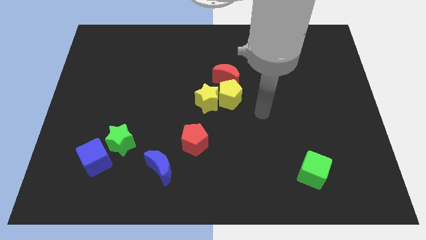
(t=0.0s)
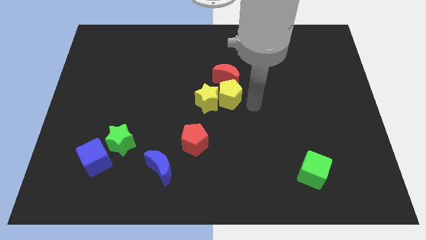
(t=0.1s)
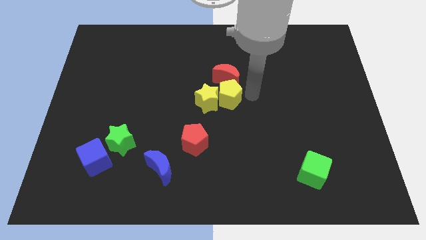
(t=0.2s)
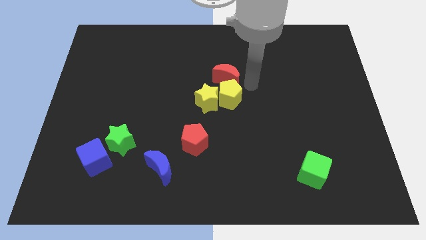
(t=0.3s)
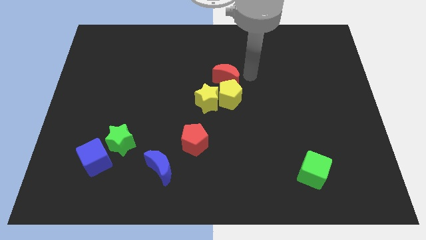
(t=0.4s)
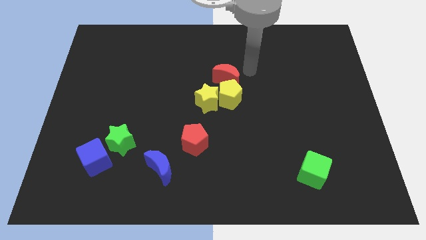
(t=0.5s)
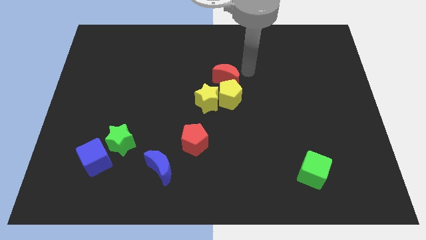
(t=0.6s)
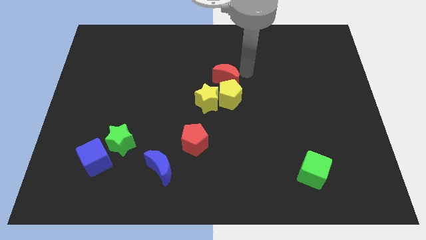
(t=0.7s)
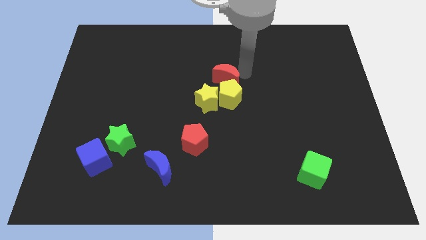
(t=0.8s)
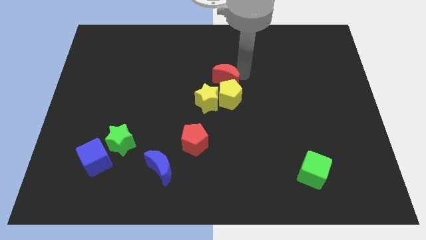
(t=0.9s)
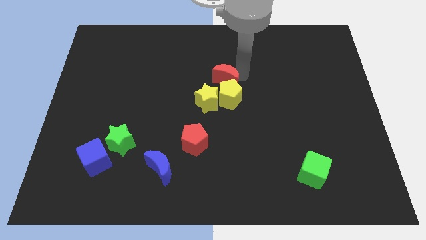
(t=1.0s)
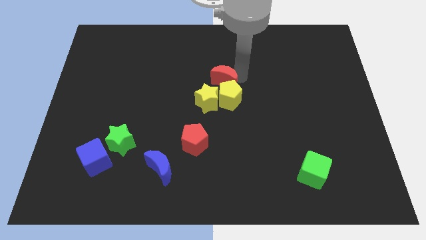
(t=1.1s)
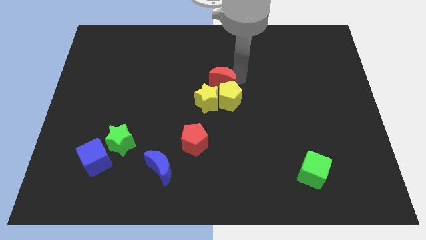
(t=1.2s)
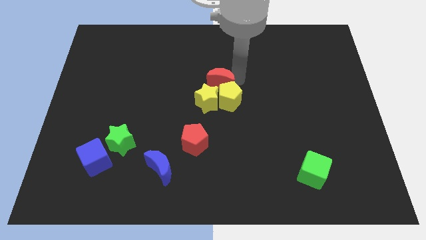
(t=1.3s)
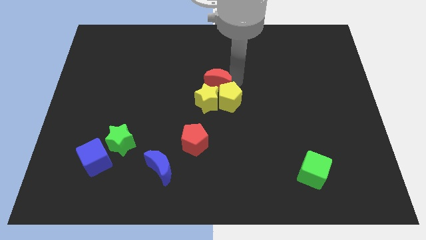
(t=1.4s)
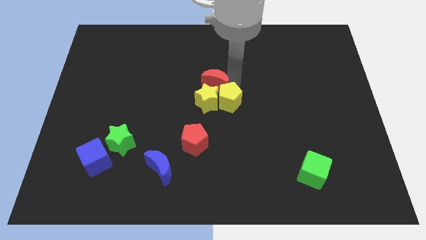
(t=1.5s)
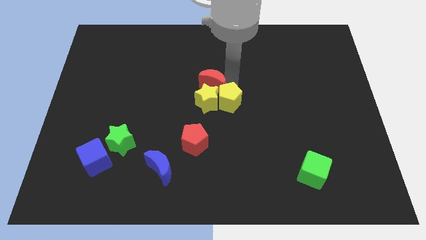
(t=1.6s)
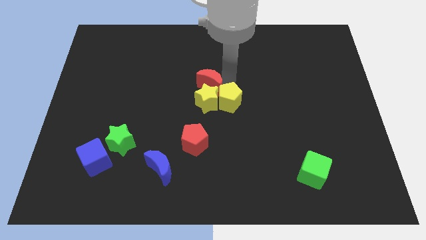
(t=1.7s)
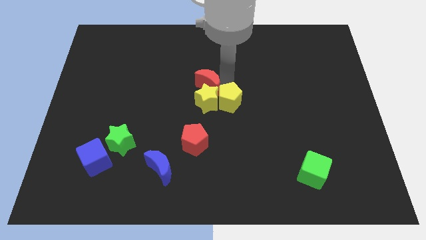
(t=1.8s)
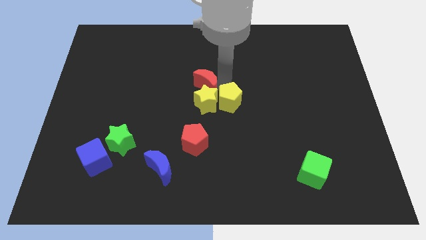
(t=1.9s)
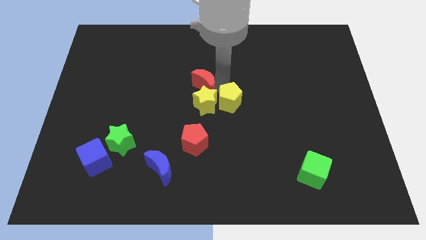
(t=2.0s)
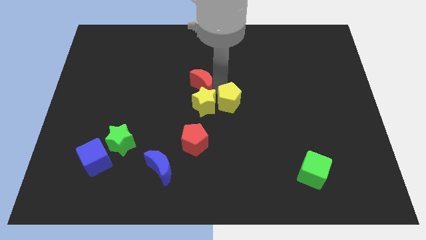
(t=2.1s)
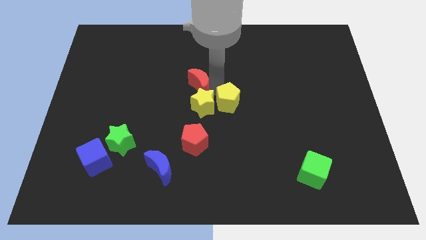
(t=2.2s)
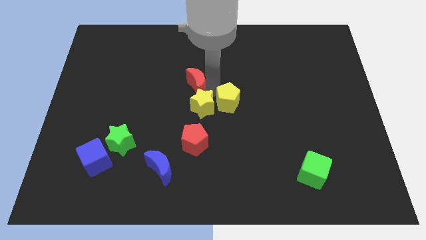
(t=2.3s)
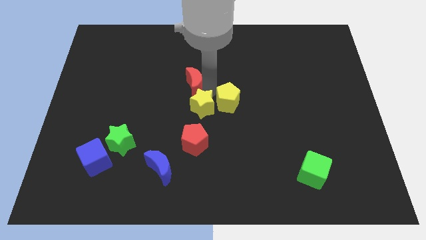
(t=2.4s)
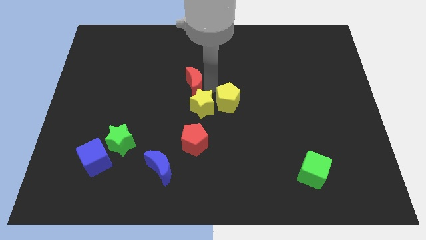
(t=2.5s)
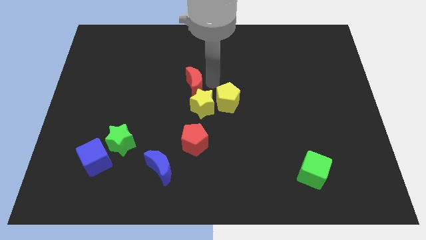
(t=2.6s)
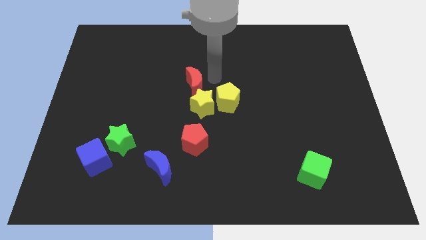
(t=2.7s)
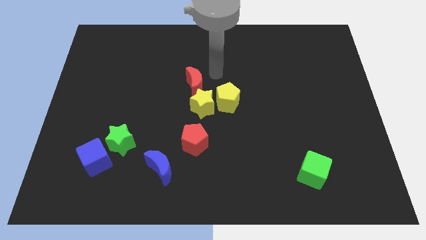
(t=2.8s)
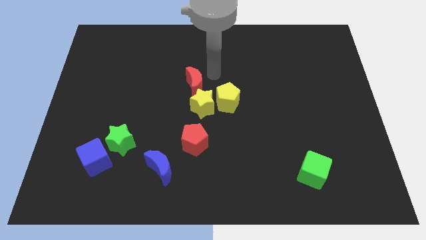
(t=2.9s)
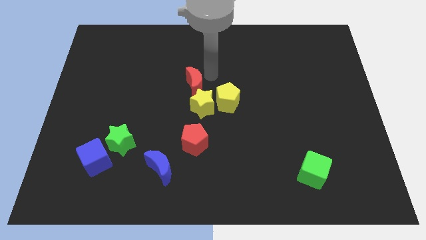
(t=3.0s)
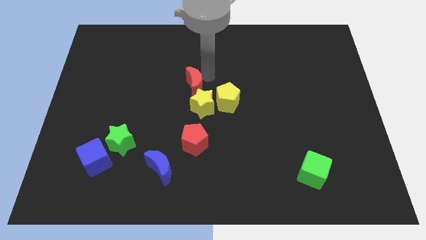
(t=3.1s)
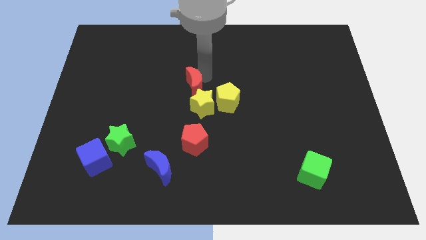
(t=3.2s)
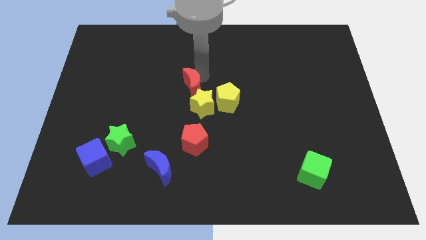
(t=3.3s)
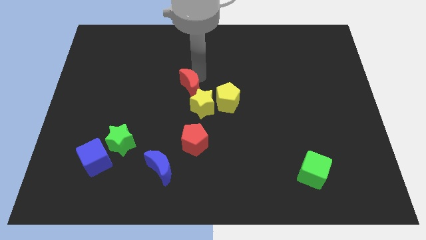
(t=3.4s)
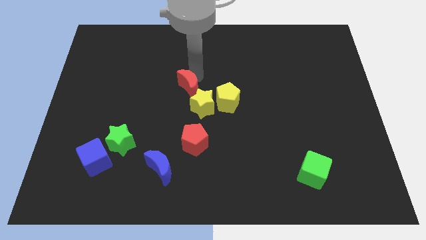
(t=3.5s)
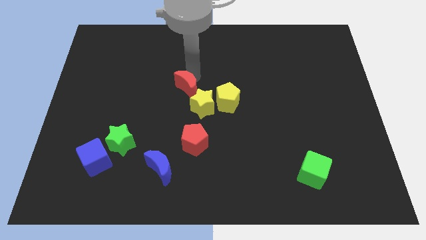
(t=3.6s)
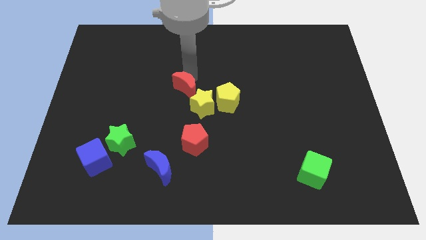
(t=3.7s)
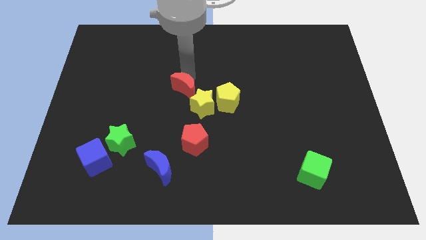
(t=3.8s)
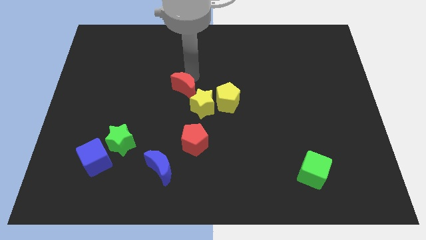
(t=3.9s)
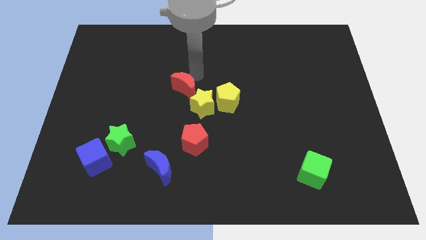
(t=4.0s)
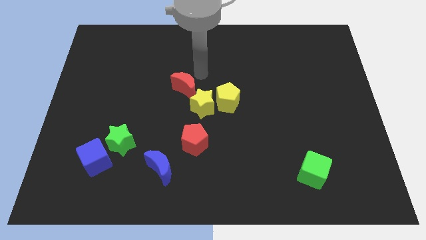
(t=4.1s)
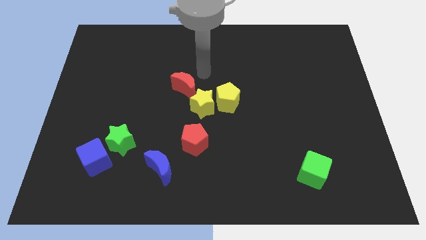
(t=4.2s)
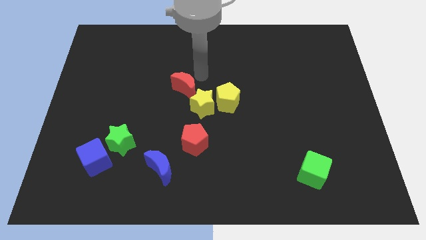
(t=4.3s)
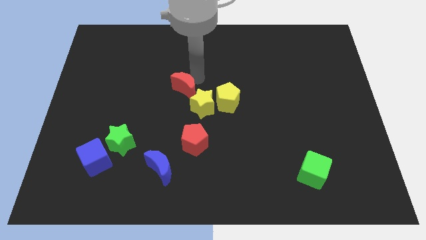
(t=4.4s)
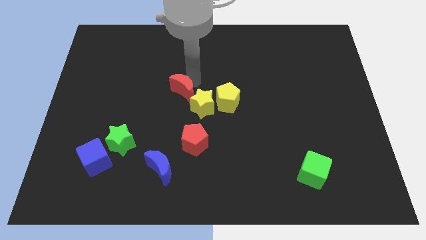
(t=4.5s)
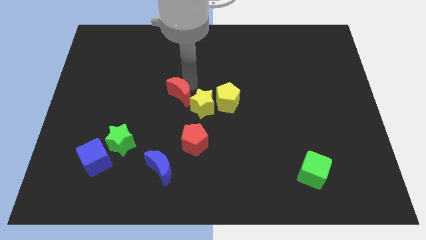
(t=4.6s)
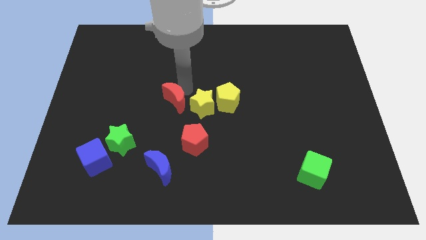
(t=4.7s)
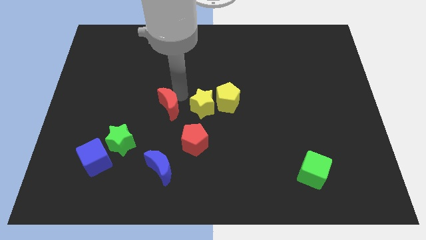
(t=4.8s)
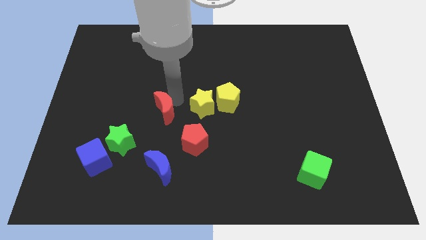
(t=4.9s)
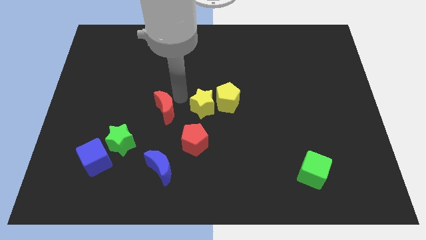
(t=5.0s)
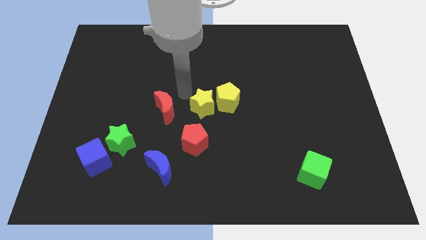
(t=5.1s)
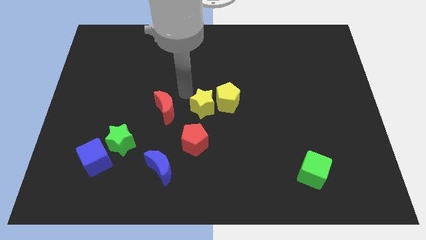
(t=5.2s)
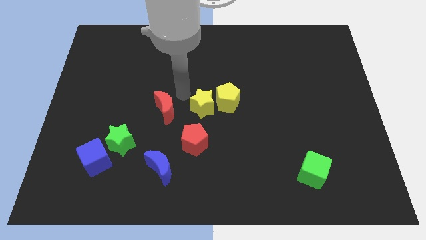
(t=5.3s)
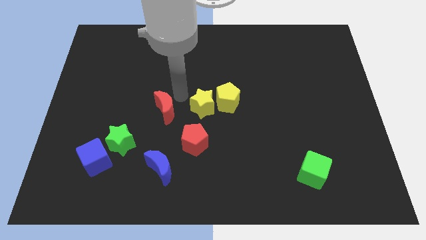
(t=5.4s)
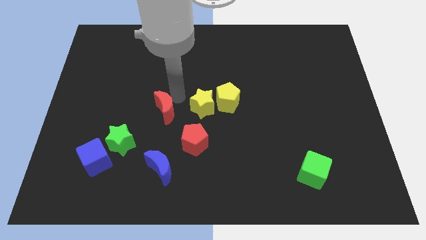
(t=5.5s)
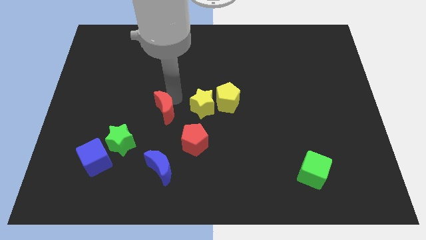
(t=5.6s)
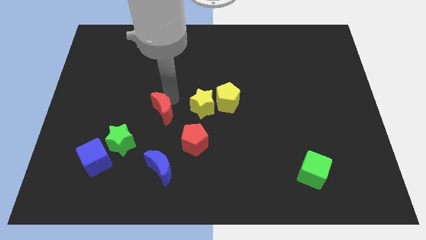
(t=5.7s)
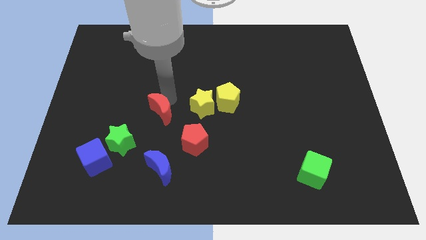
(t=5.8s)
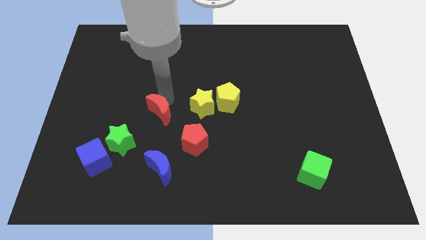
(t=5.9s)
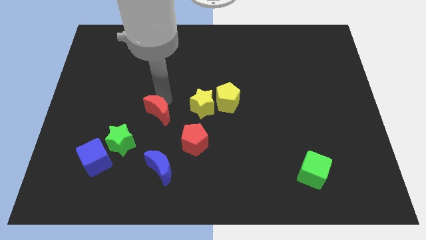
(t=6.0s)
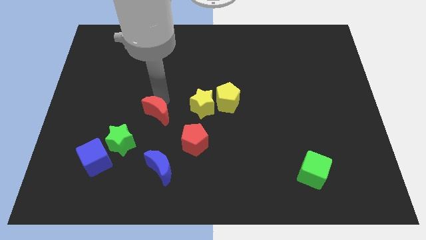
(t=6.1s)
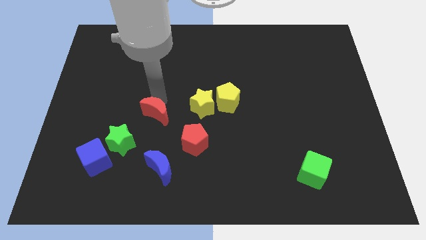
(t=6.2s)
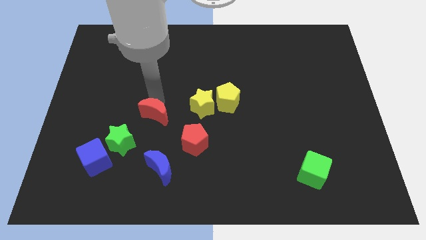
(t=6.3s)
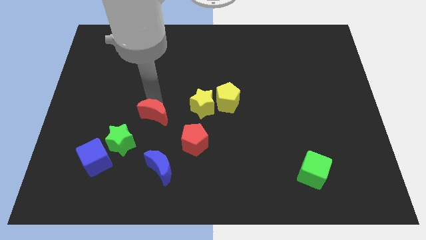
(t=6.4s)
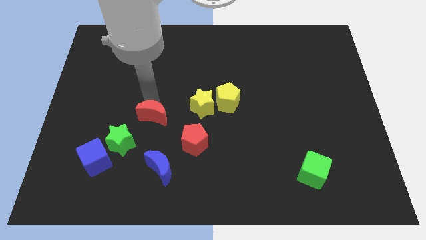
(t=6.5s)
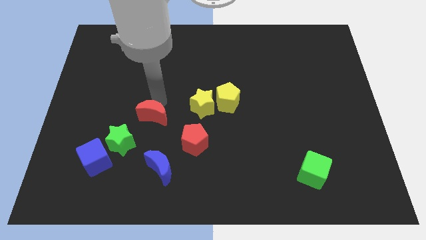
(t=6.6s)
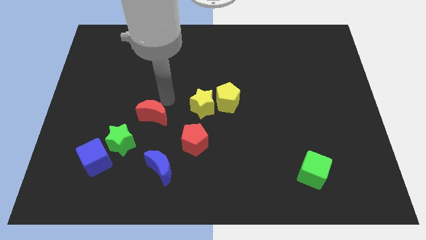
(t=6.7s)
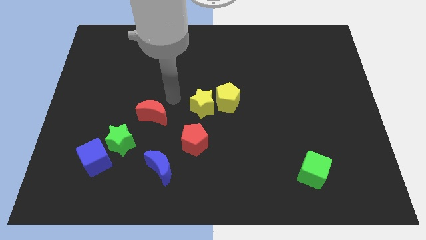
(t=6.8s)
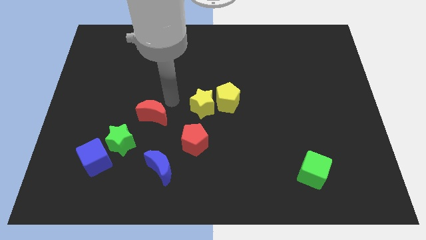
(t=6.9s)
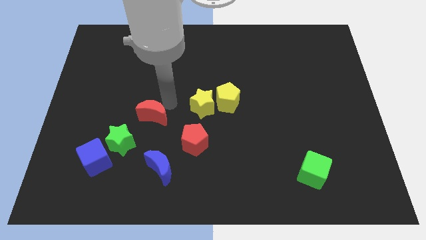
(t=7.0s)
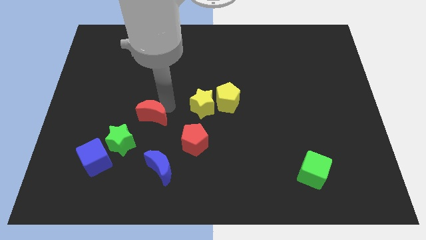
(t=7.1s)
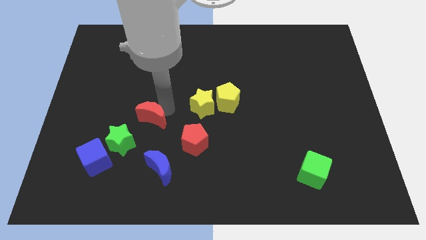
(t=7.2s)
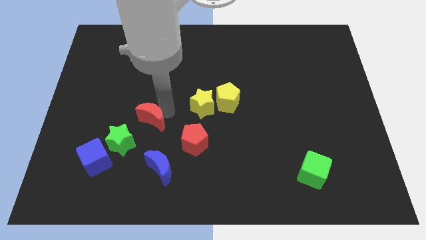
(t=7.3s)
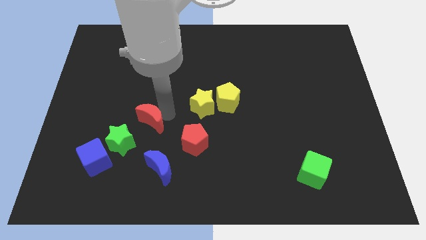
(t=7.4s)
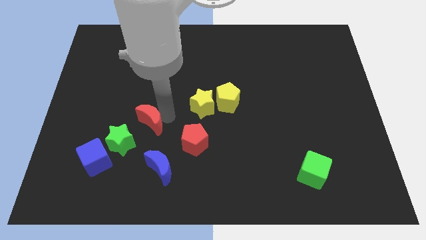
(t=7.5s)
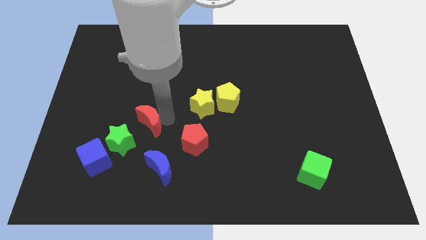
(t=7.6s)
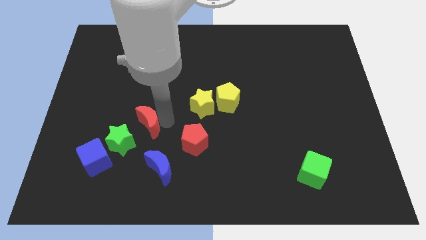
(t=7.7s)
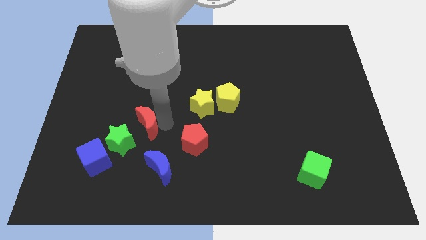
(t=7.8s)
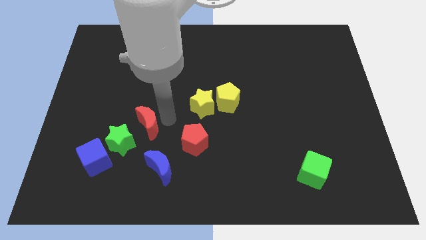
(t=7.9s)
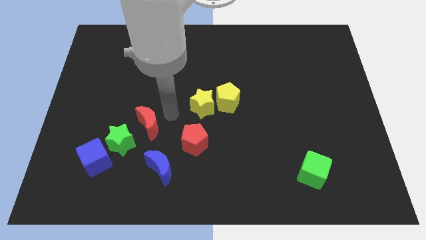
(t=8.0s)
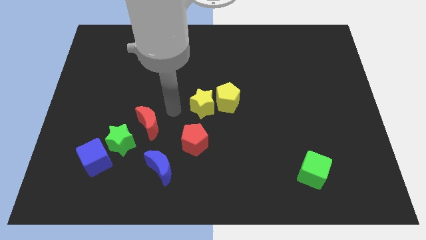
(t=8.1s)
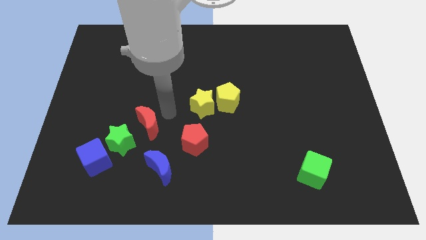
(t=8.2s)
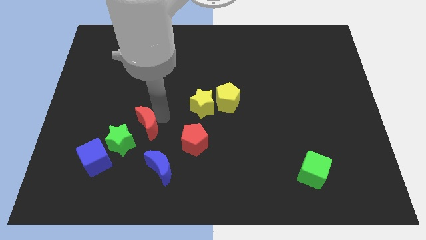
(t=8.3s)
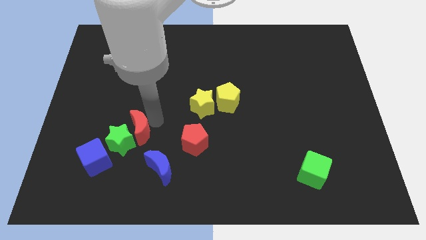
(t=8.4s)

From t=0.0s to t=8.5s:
push the red moon to the green star
